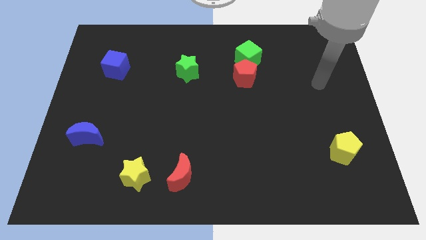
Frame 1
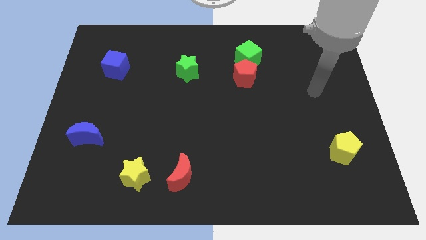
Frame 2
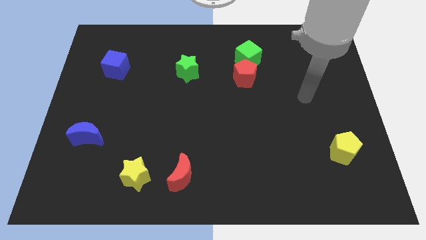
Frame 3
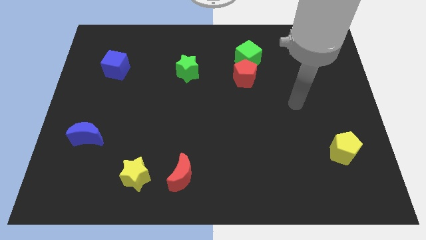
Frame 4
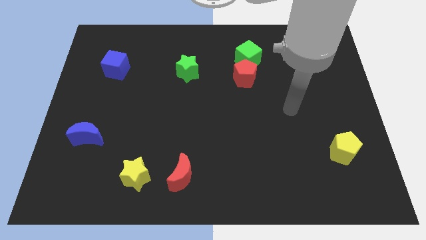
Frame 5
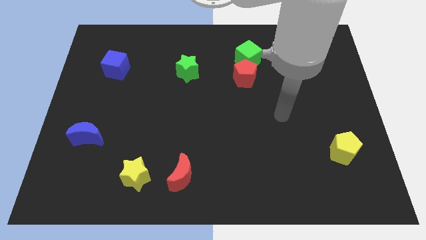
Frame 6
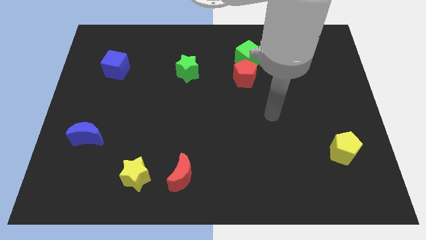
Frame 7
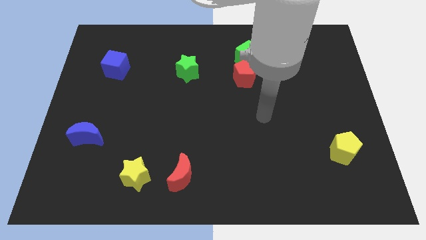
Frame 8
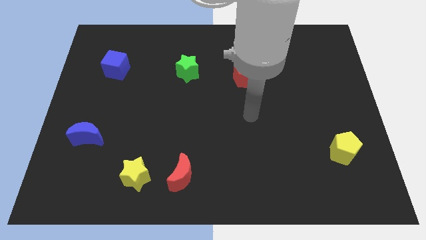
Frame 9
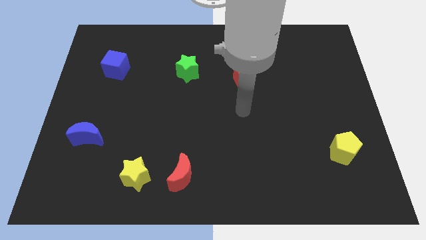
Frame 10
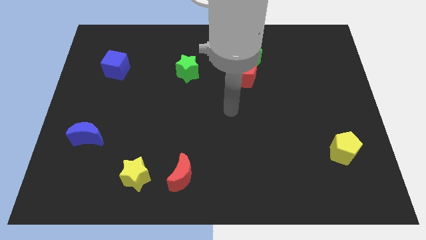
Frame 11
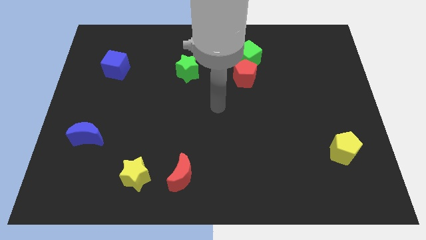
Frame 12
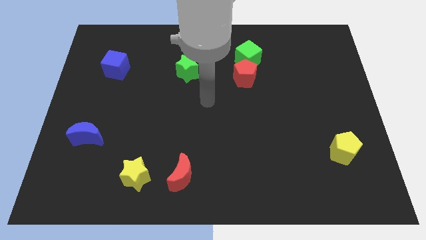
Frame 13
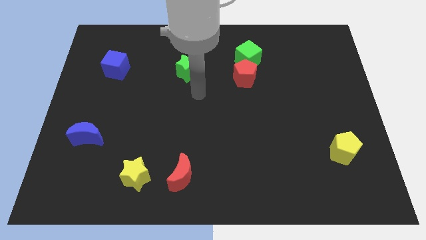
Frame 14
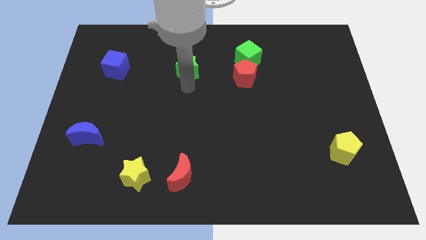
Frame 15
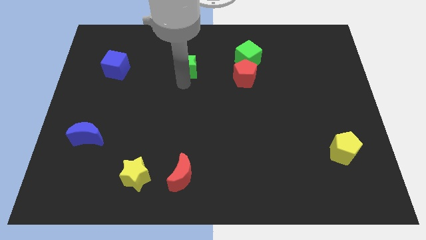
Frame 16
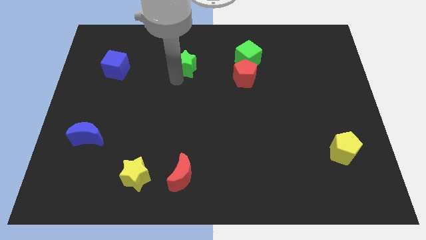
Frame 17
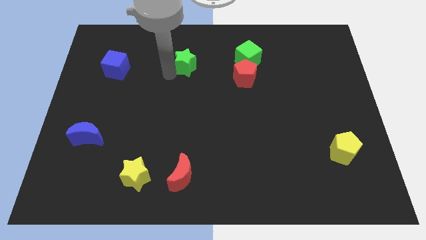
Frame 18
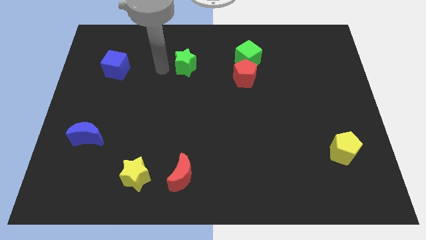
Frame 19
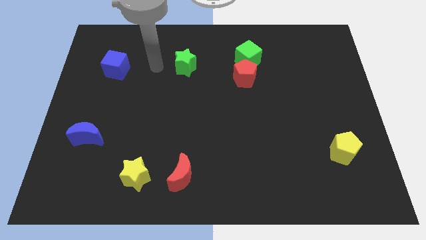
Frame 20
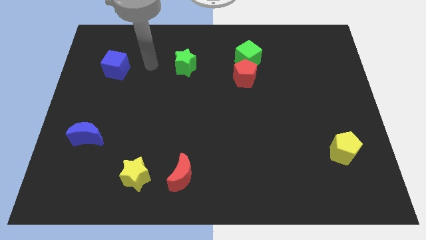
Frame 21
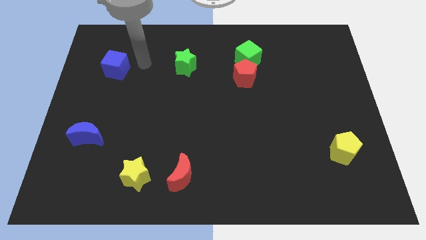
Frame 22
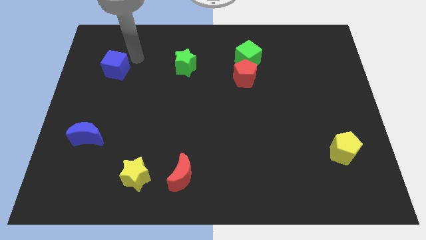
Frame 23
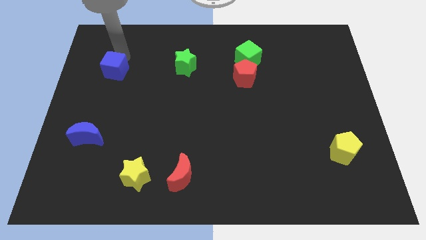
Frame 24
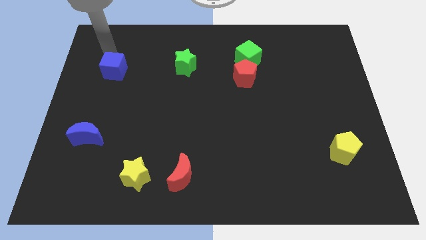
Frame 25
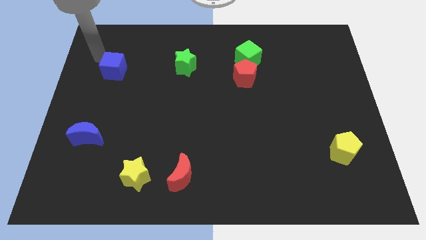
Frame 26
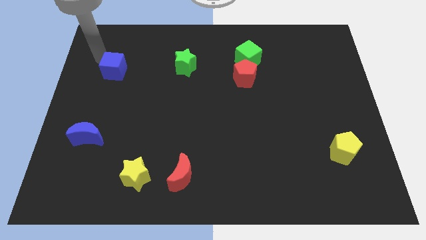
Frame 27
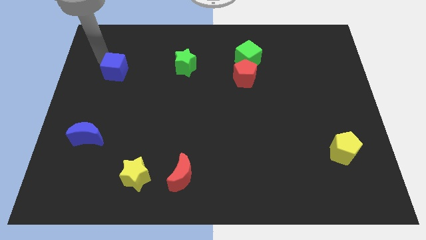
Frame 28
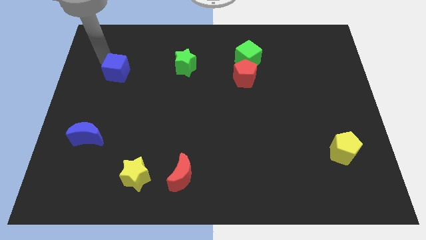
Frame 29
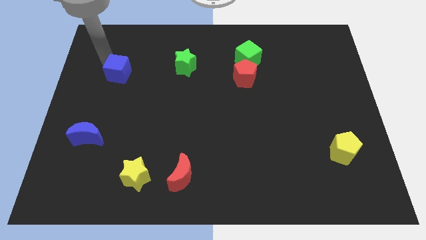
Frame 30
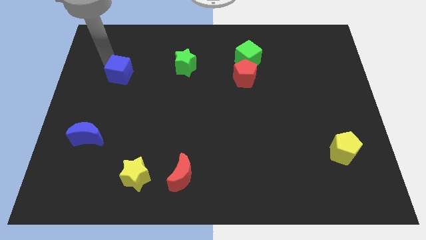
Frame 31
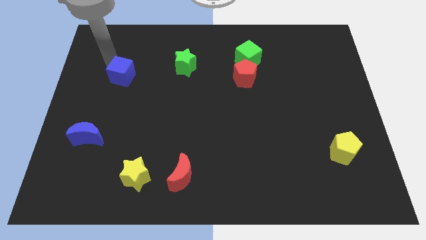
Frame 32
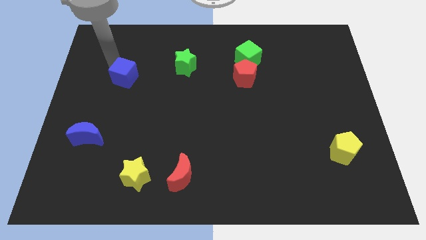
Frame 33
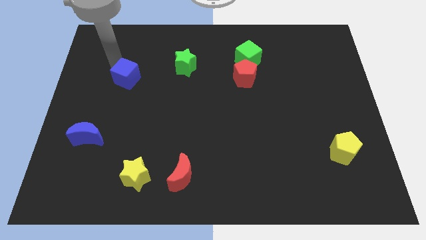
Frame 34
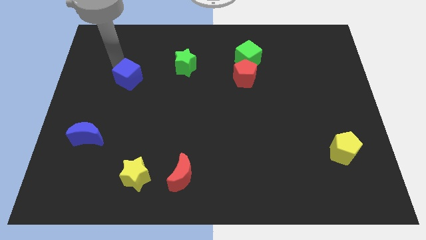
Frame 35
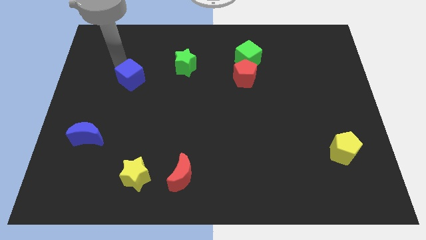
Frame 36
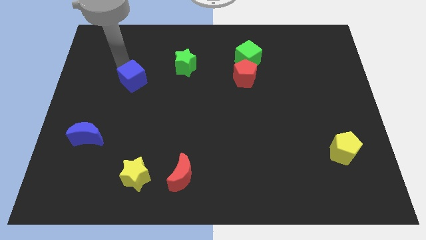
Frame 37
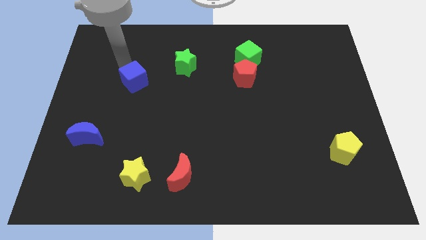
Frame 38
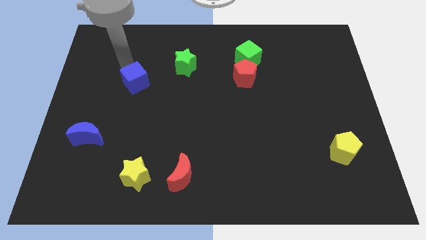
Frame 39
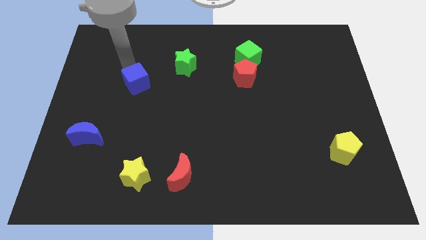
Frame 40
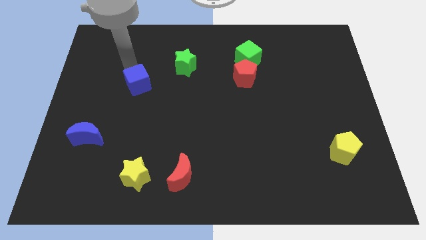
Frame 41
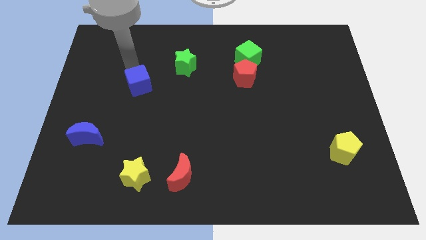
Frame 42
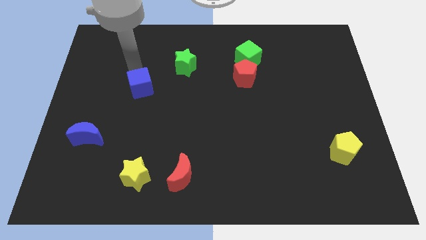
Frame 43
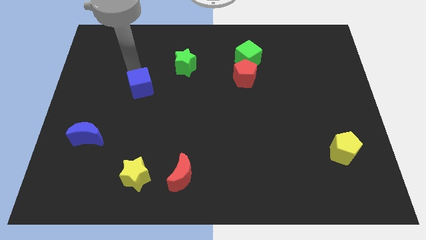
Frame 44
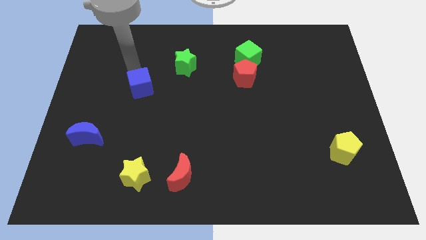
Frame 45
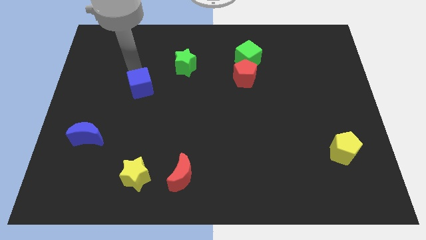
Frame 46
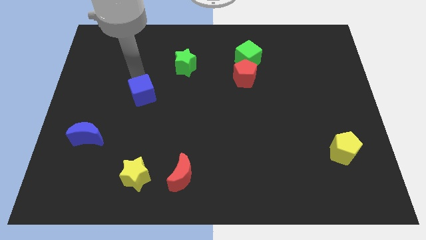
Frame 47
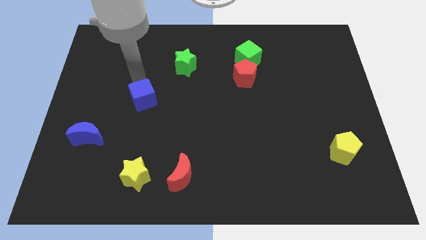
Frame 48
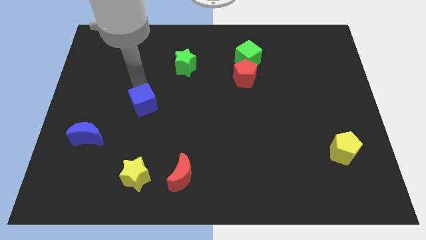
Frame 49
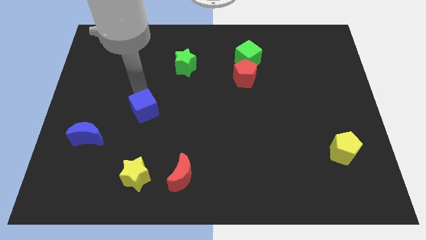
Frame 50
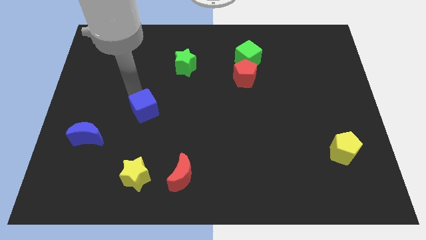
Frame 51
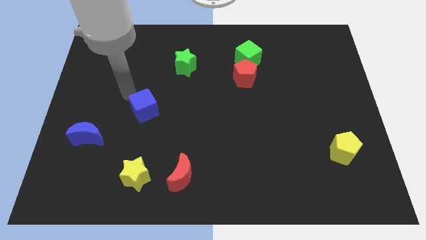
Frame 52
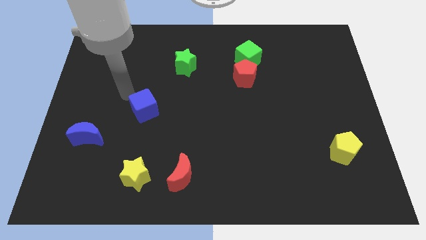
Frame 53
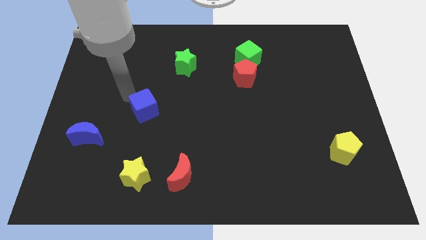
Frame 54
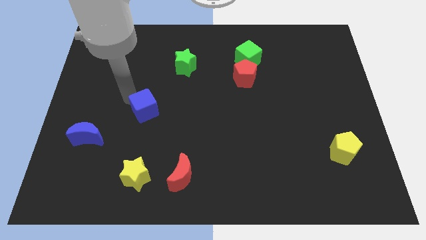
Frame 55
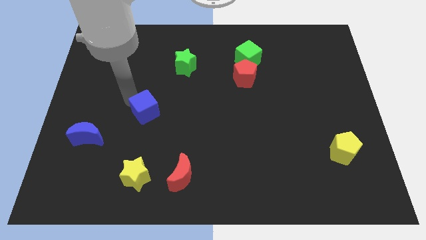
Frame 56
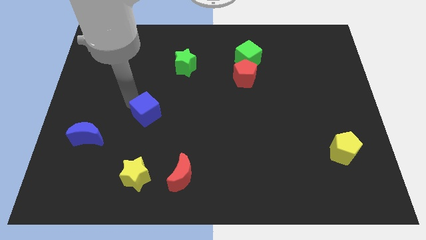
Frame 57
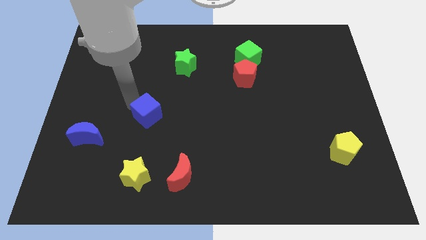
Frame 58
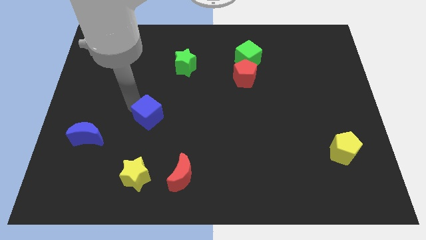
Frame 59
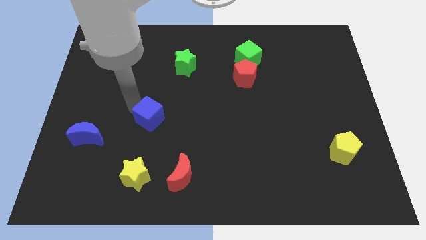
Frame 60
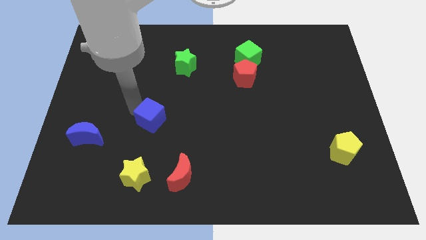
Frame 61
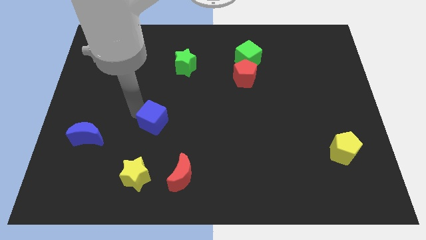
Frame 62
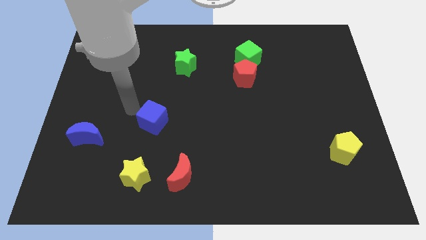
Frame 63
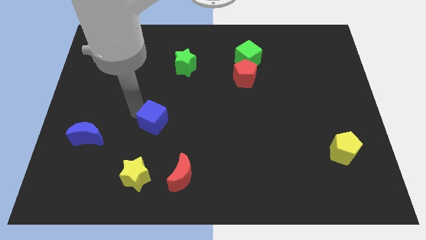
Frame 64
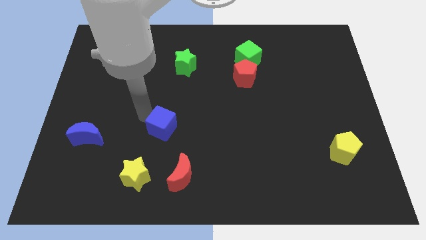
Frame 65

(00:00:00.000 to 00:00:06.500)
push the blue cube down and then to the right

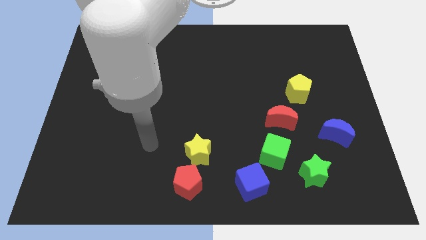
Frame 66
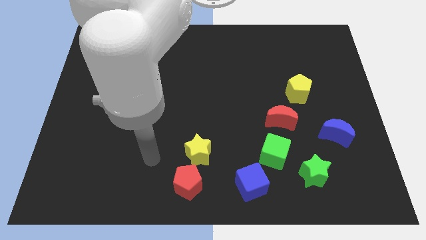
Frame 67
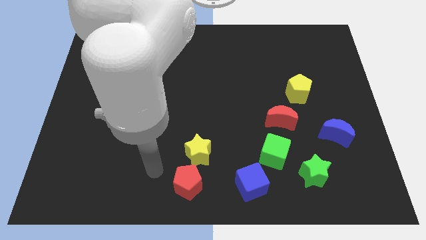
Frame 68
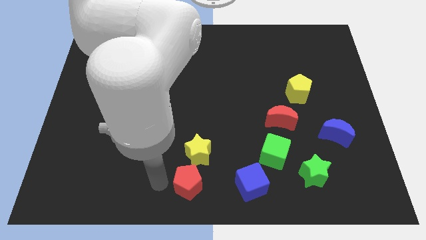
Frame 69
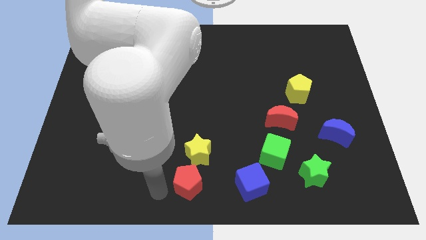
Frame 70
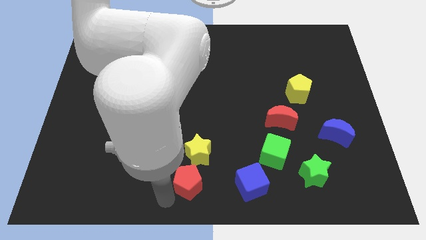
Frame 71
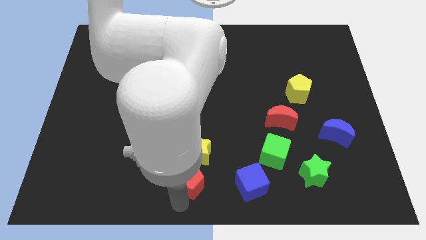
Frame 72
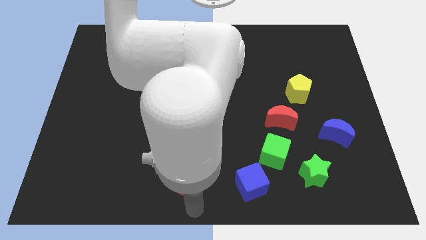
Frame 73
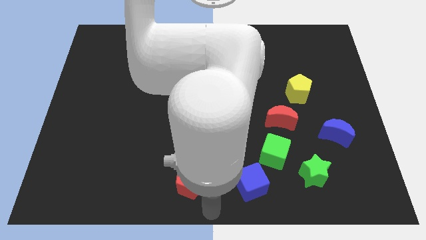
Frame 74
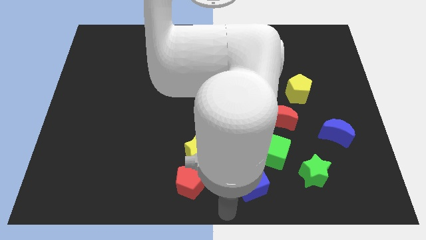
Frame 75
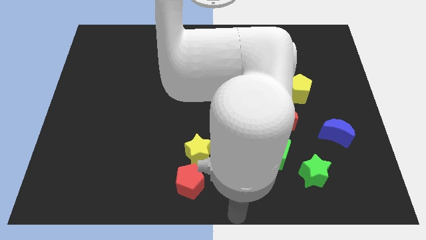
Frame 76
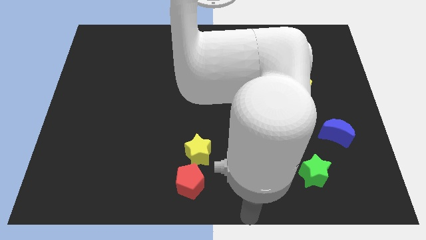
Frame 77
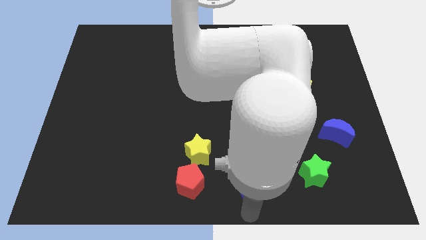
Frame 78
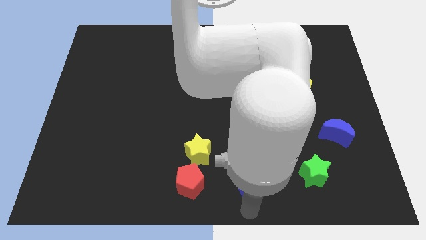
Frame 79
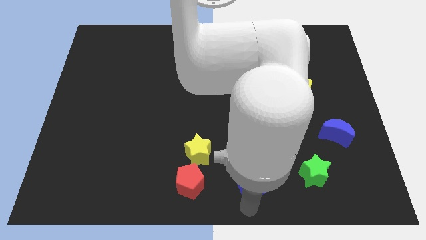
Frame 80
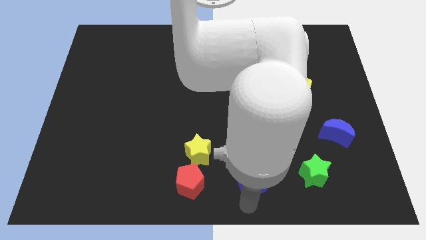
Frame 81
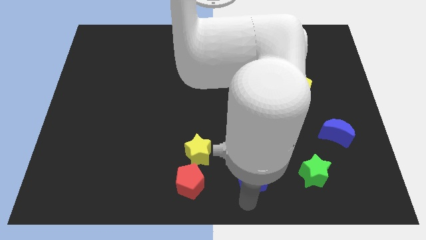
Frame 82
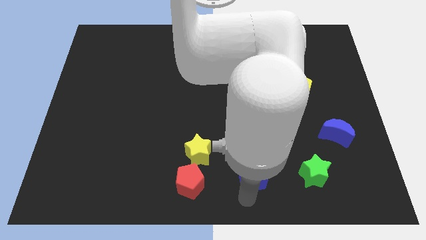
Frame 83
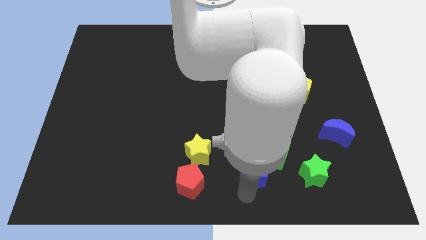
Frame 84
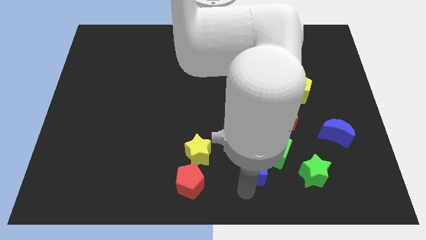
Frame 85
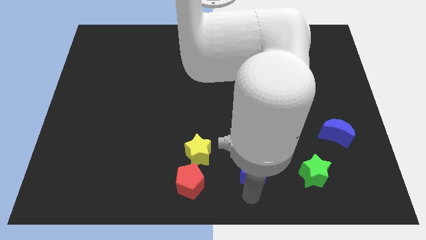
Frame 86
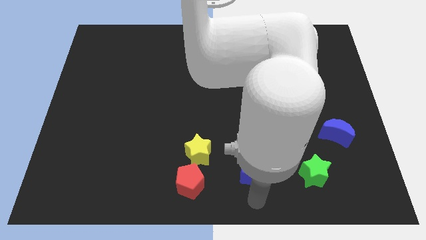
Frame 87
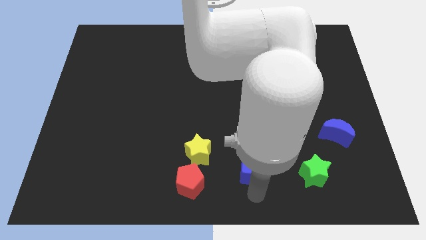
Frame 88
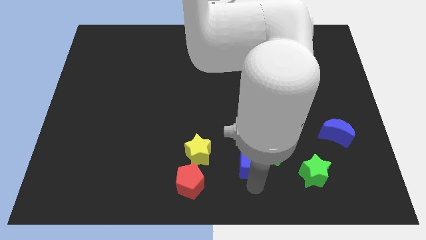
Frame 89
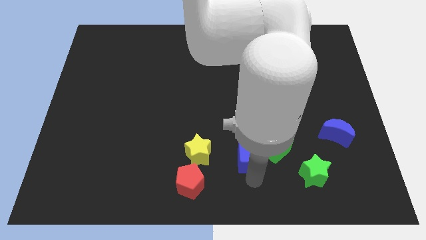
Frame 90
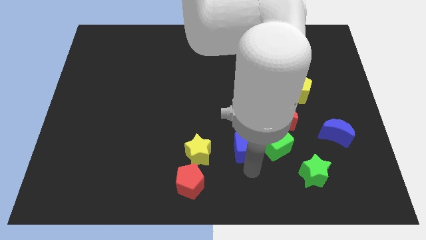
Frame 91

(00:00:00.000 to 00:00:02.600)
slide the blue cube upwards slightly
